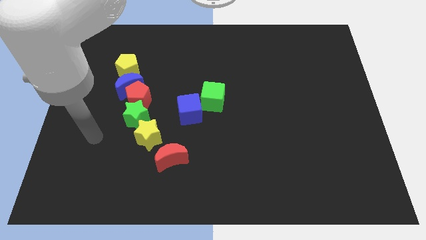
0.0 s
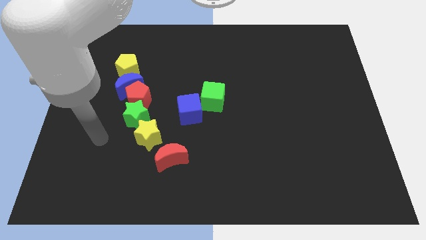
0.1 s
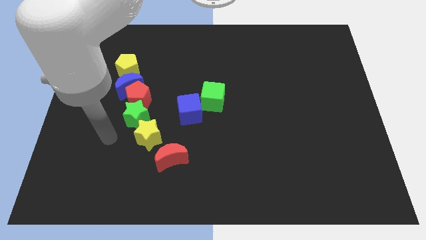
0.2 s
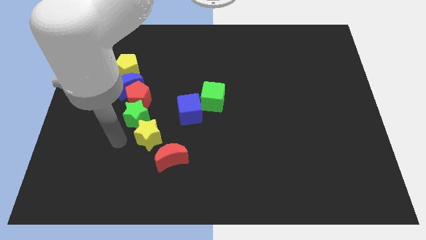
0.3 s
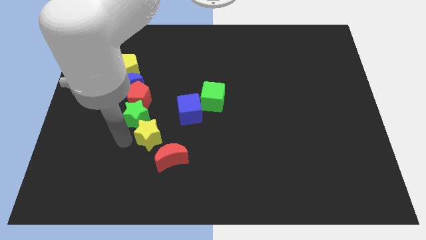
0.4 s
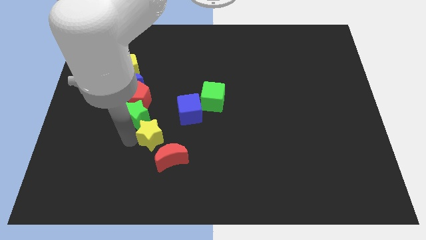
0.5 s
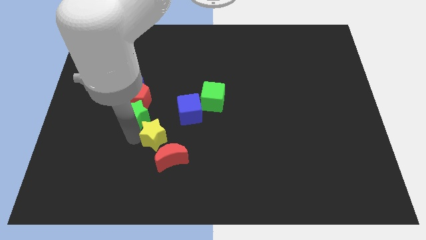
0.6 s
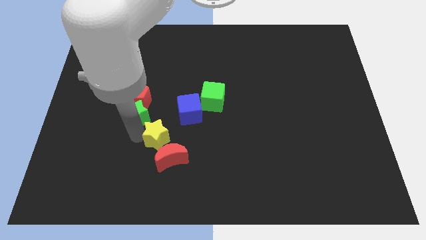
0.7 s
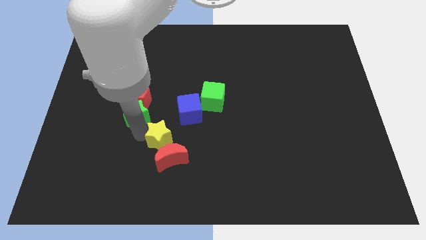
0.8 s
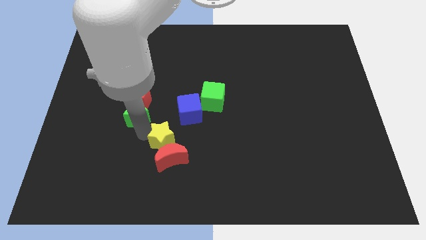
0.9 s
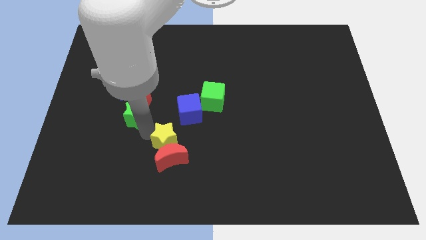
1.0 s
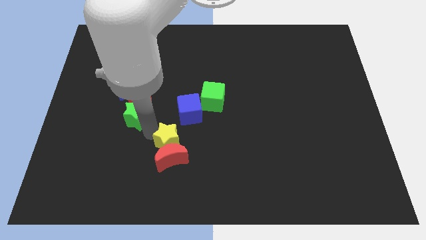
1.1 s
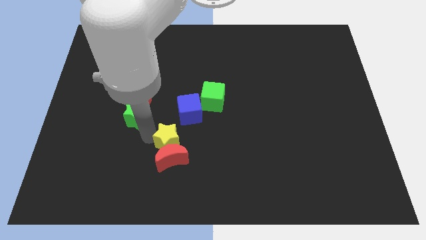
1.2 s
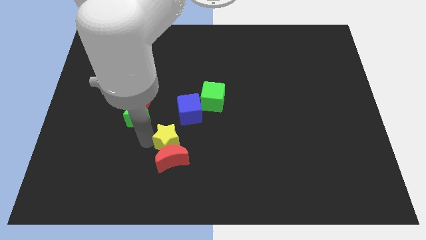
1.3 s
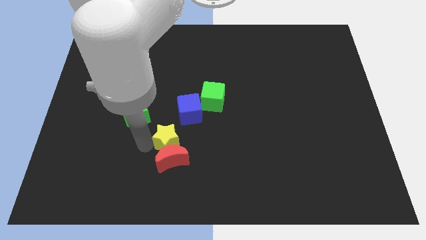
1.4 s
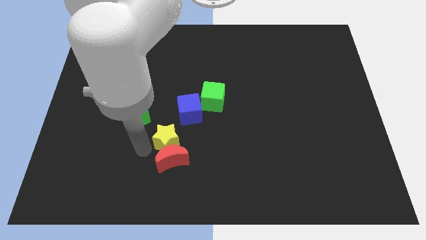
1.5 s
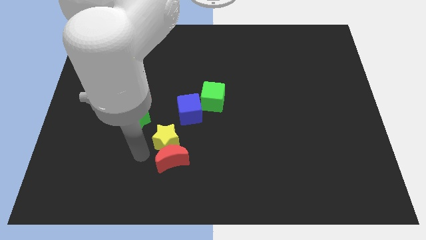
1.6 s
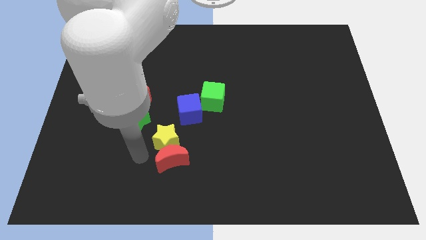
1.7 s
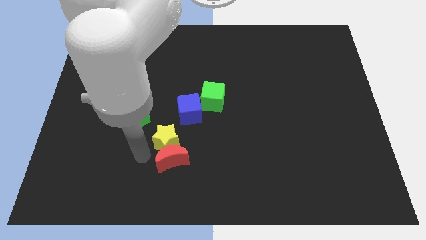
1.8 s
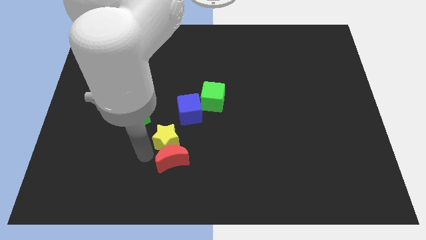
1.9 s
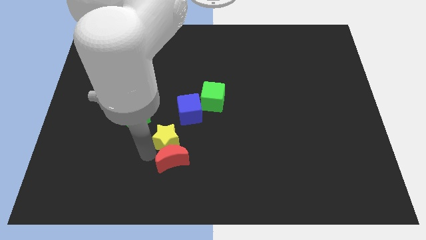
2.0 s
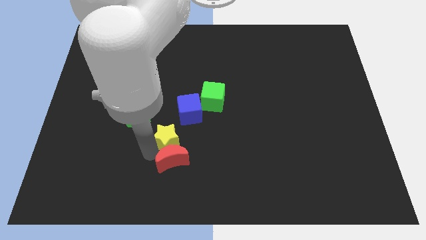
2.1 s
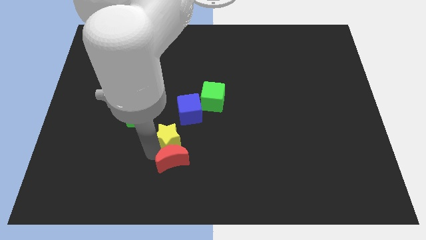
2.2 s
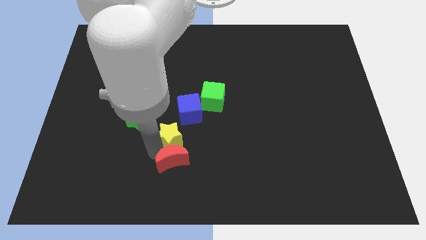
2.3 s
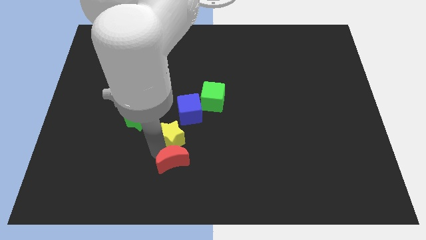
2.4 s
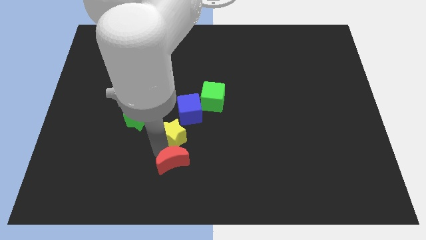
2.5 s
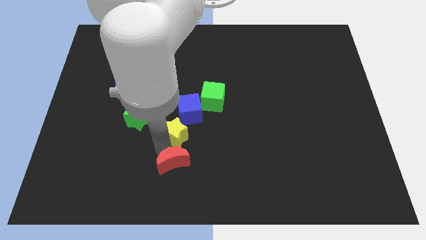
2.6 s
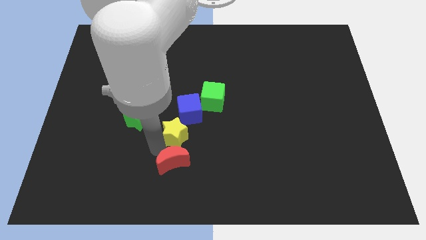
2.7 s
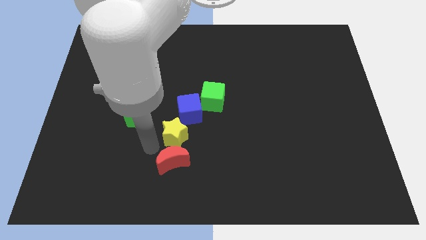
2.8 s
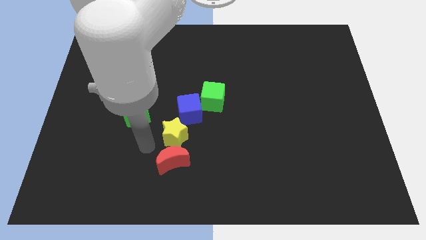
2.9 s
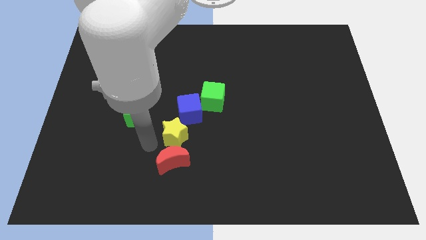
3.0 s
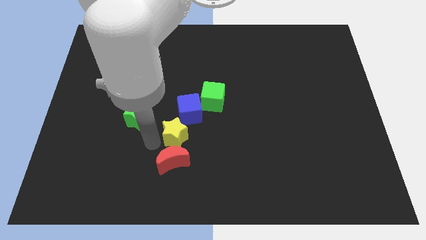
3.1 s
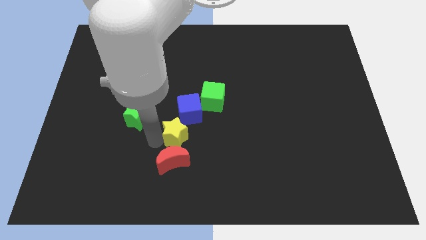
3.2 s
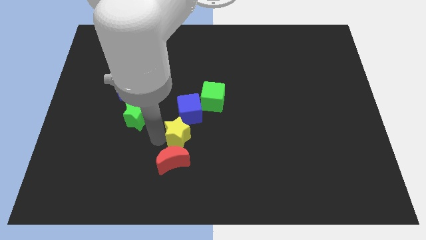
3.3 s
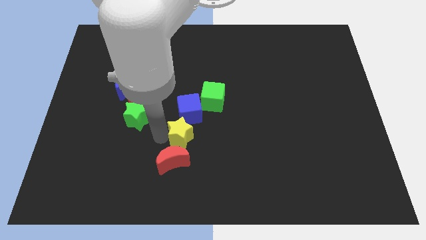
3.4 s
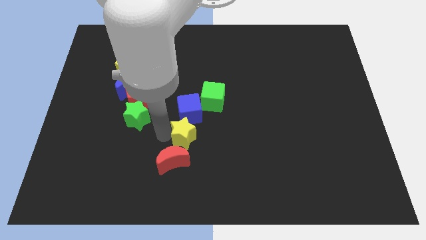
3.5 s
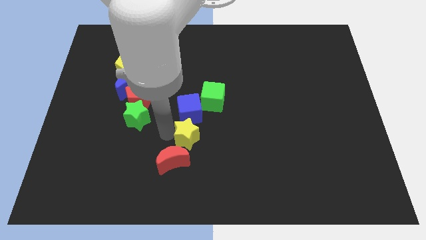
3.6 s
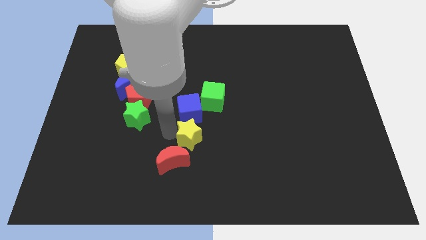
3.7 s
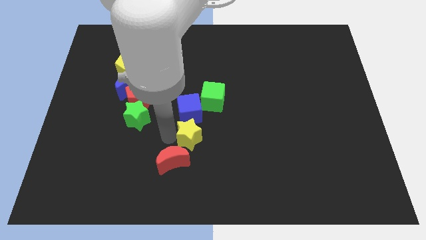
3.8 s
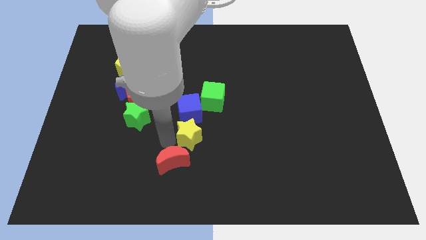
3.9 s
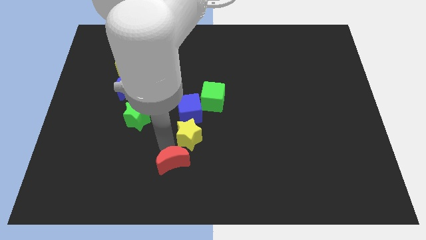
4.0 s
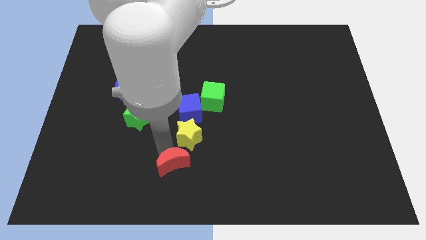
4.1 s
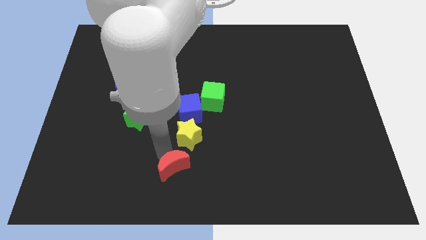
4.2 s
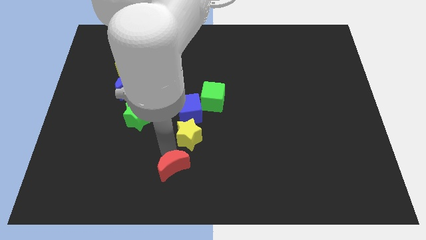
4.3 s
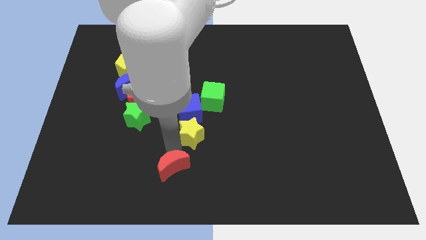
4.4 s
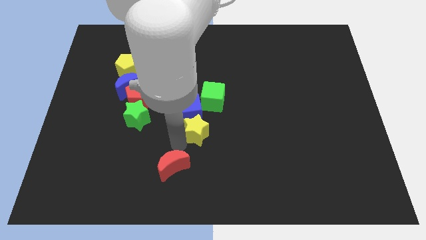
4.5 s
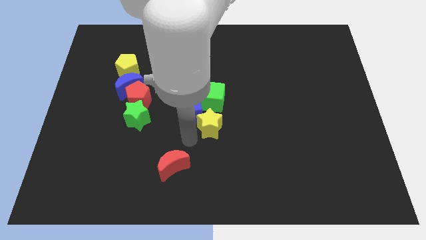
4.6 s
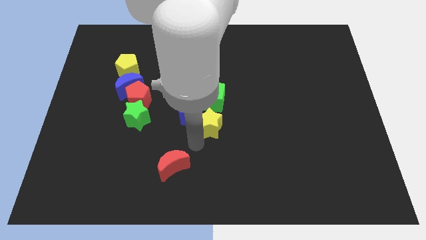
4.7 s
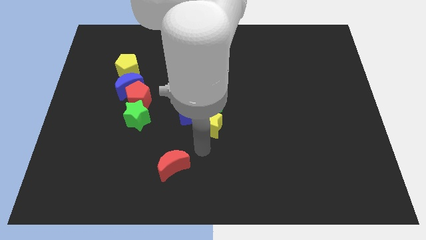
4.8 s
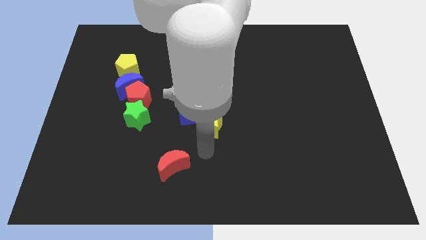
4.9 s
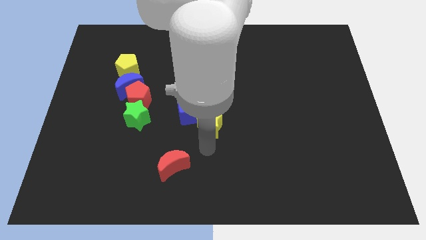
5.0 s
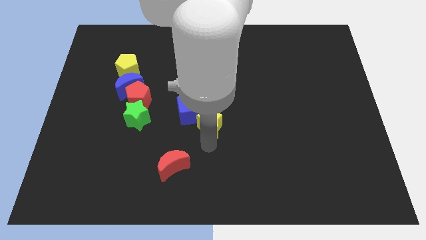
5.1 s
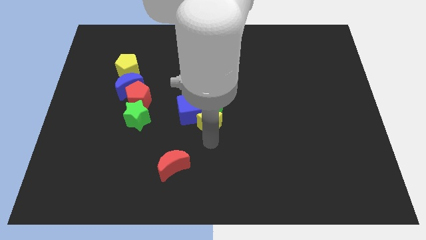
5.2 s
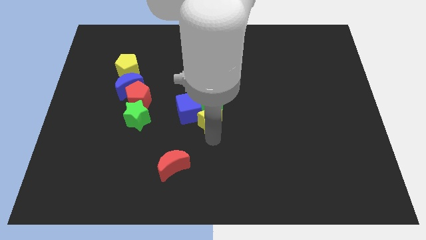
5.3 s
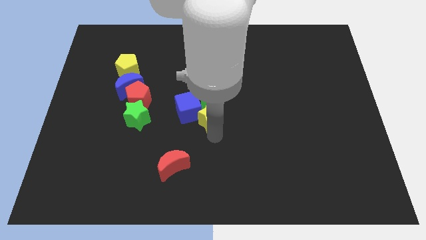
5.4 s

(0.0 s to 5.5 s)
slide the yellow star close to the green cube

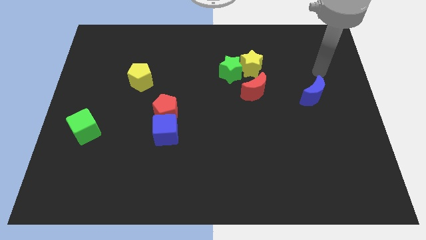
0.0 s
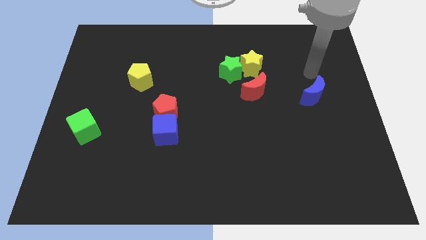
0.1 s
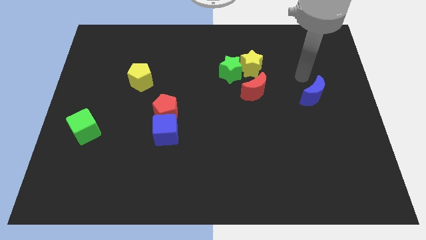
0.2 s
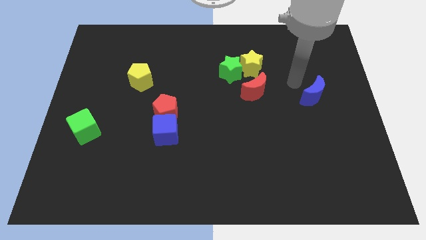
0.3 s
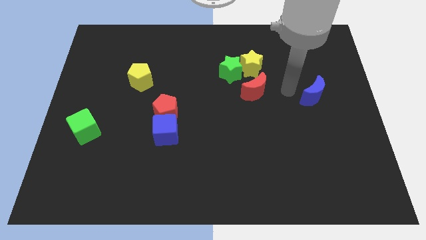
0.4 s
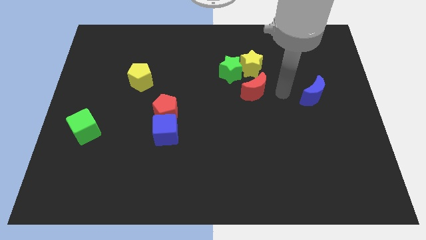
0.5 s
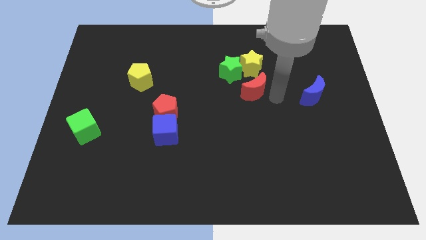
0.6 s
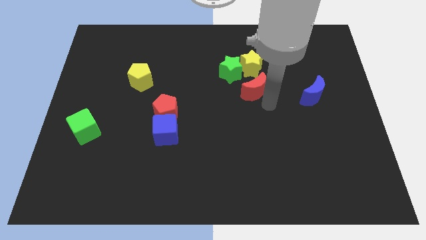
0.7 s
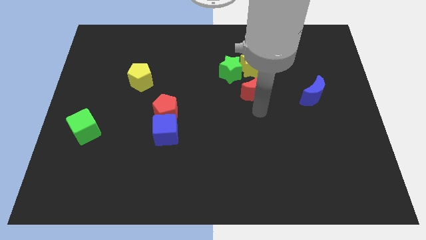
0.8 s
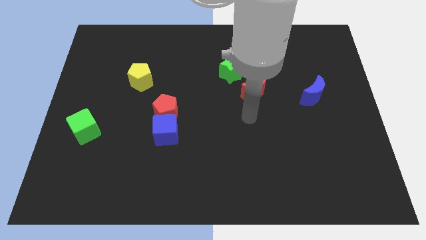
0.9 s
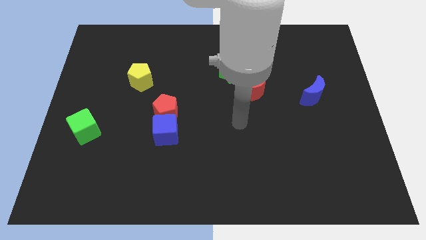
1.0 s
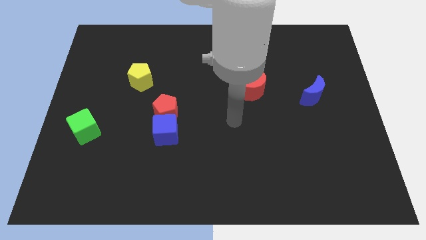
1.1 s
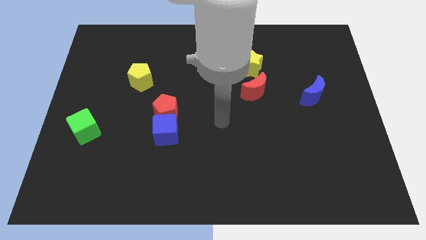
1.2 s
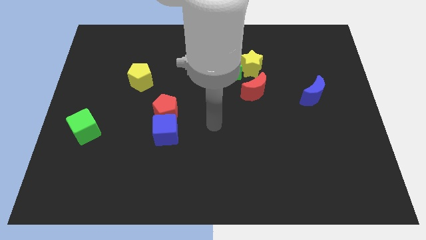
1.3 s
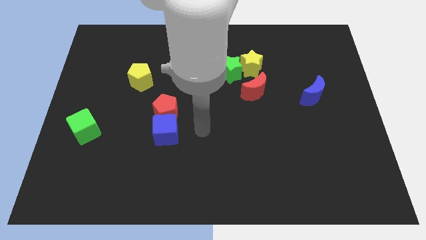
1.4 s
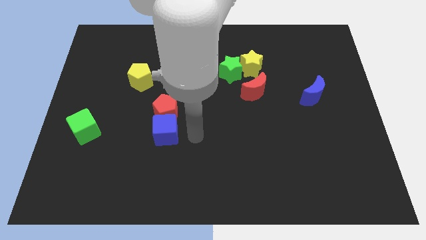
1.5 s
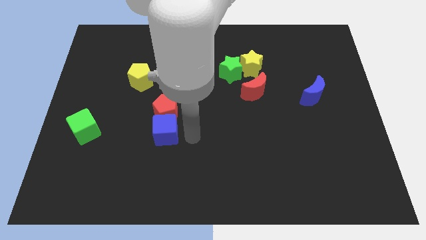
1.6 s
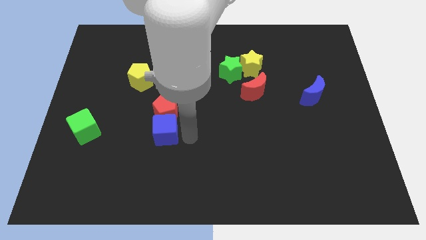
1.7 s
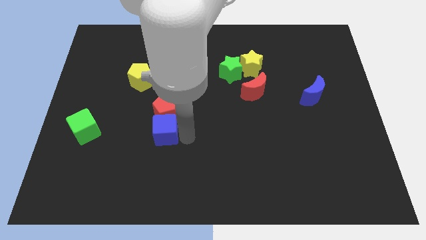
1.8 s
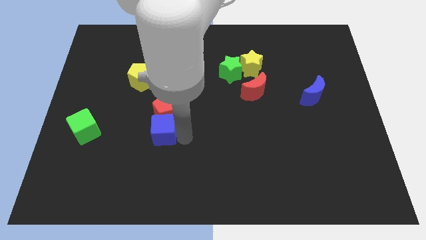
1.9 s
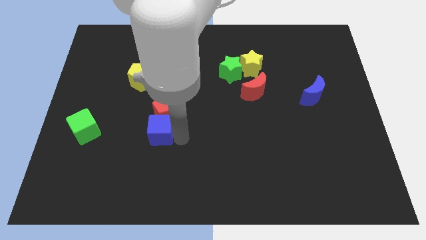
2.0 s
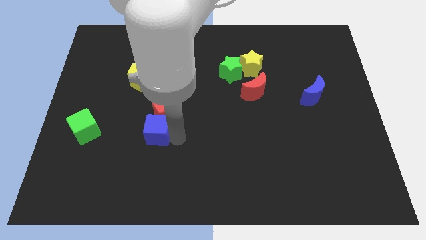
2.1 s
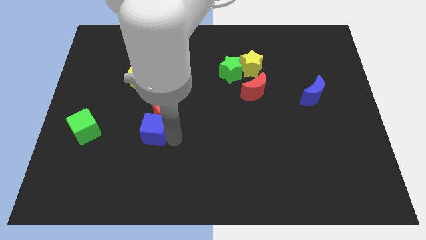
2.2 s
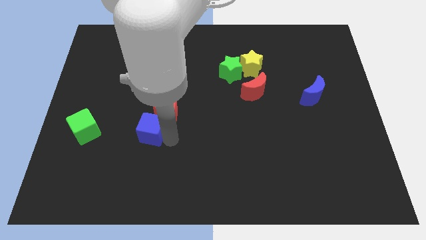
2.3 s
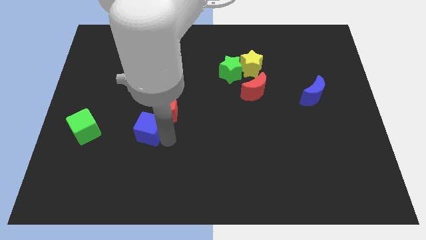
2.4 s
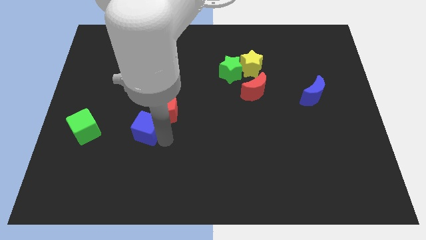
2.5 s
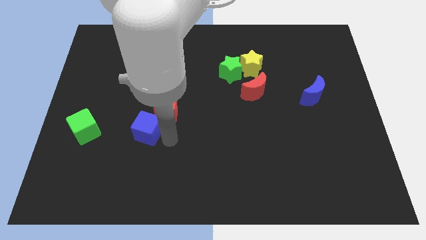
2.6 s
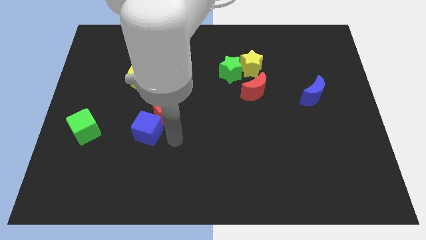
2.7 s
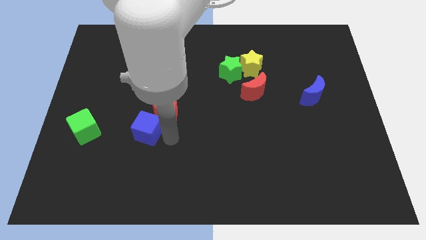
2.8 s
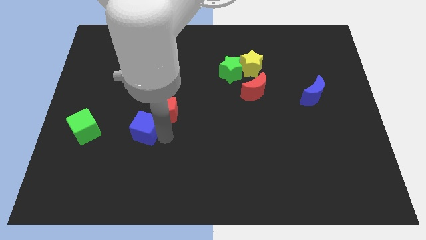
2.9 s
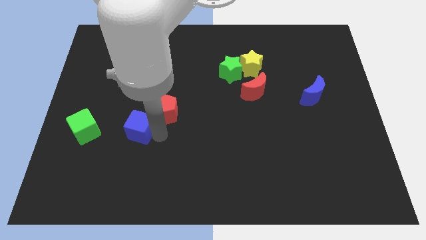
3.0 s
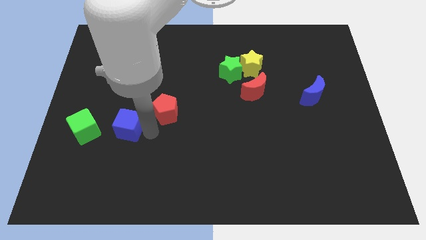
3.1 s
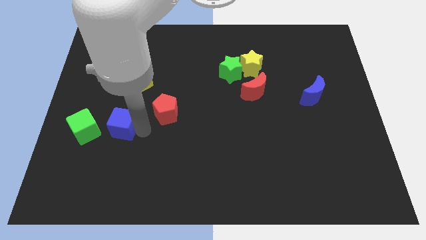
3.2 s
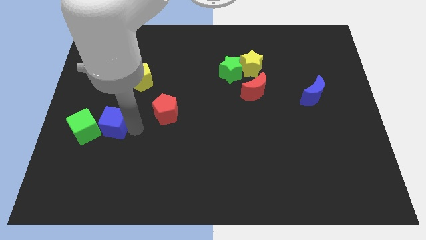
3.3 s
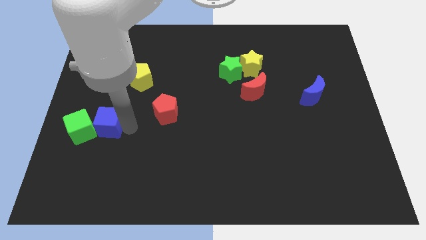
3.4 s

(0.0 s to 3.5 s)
slide the blue cube close to the green cube
